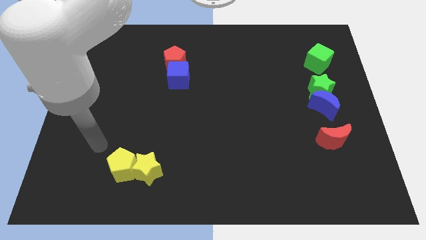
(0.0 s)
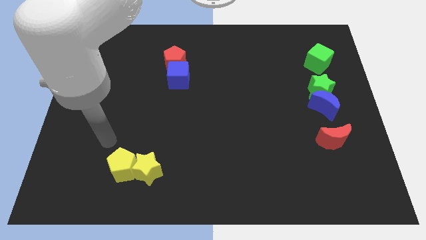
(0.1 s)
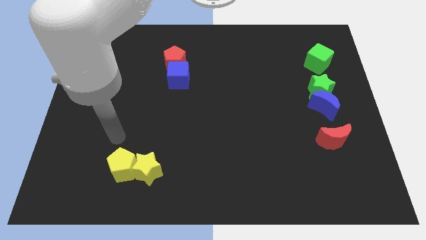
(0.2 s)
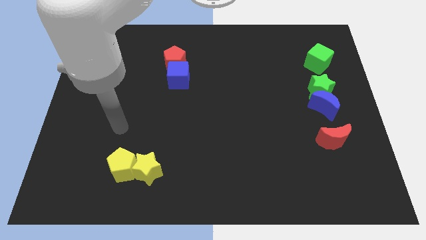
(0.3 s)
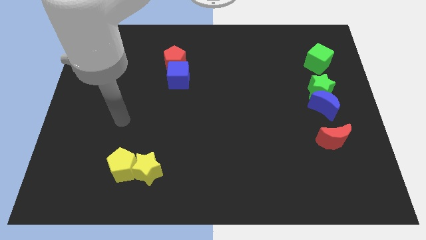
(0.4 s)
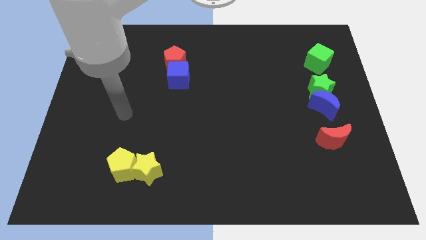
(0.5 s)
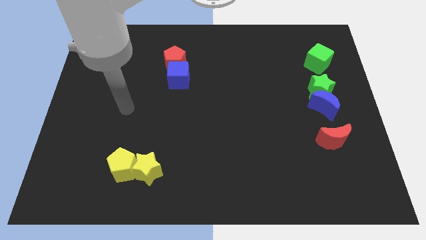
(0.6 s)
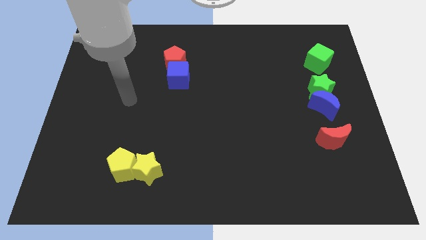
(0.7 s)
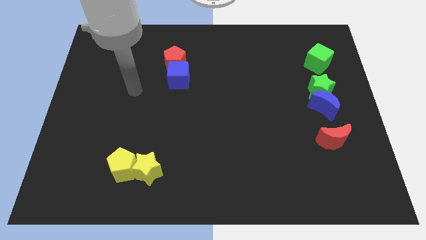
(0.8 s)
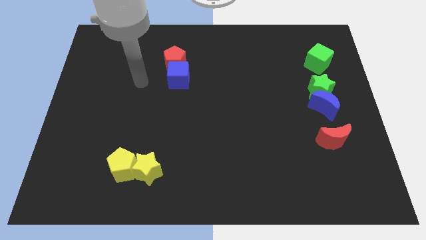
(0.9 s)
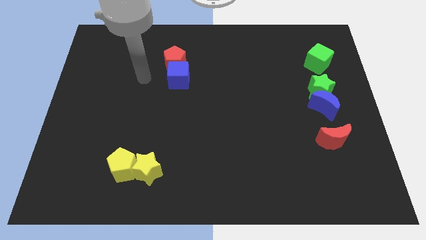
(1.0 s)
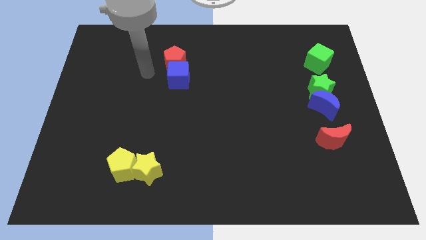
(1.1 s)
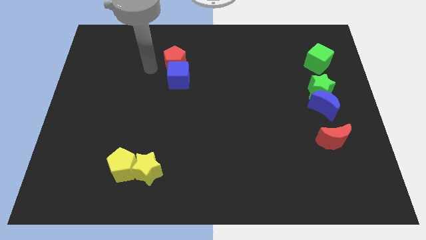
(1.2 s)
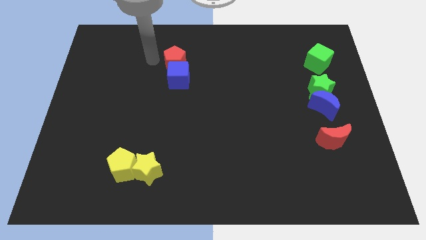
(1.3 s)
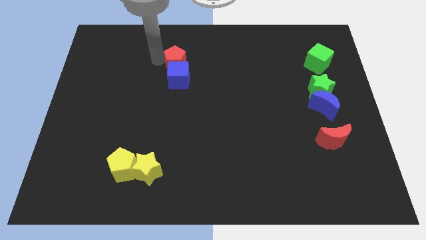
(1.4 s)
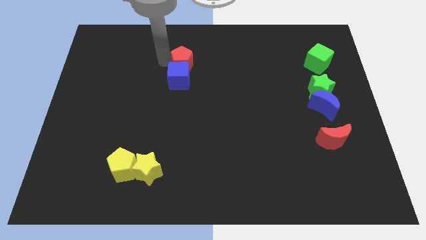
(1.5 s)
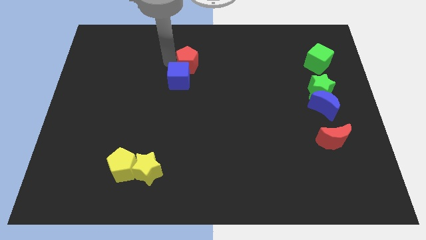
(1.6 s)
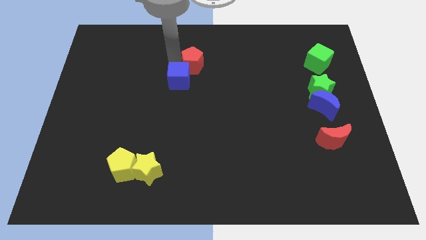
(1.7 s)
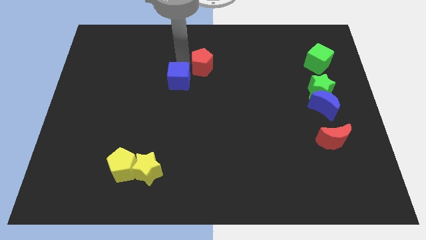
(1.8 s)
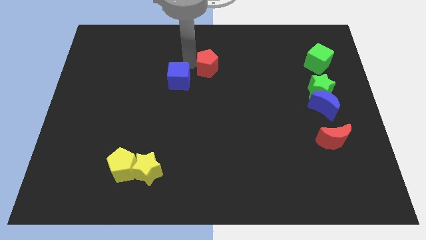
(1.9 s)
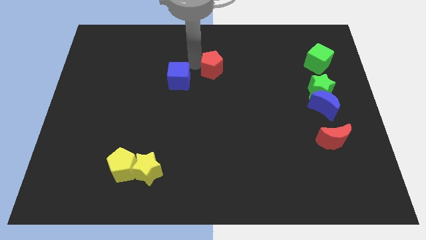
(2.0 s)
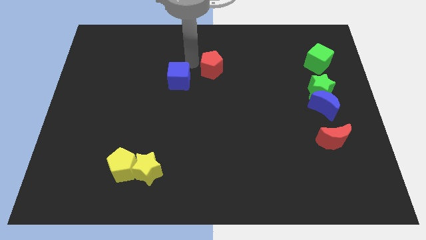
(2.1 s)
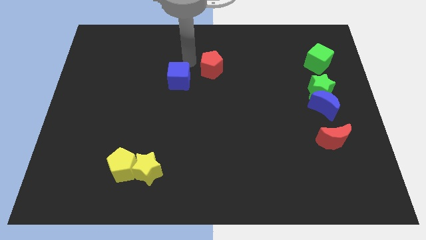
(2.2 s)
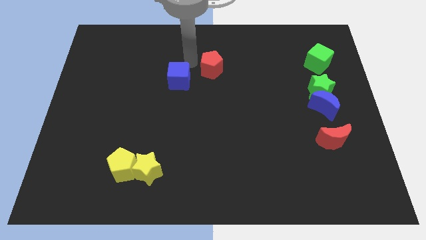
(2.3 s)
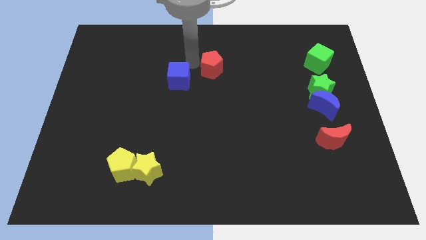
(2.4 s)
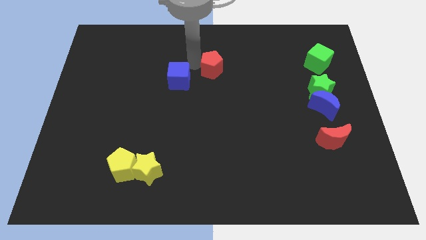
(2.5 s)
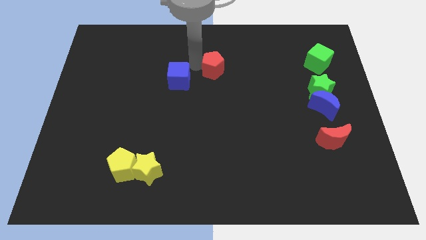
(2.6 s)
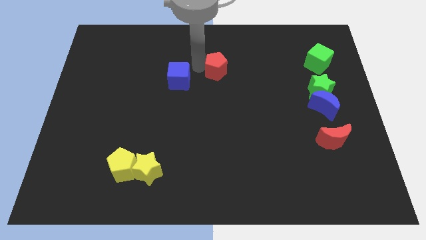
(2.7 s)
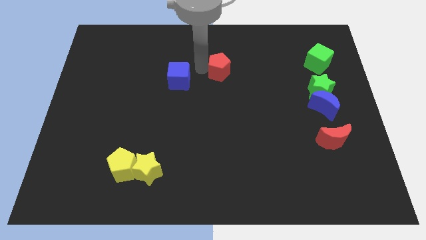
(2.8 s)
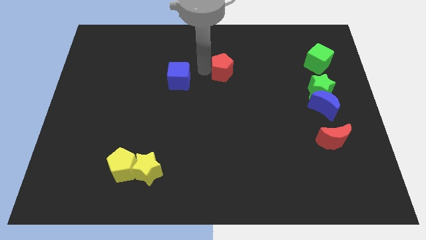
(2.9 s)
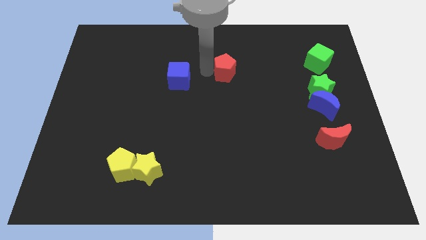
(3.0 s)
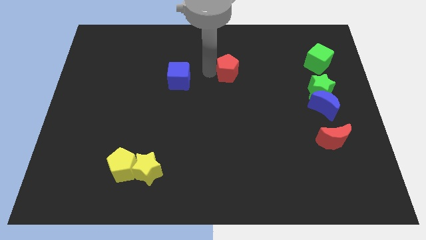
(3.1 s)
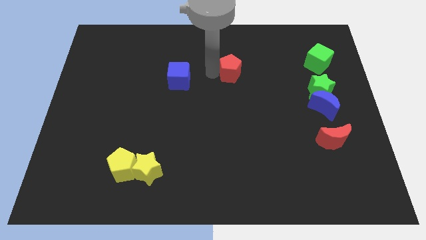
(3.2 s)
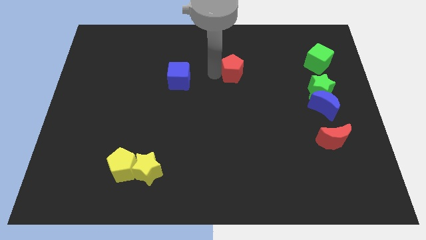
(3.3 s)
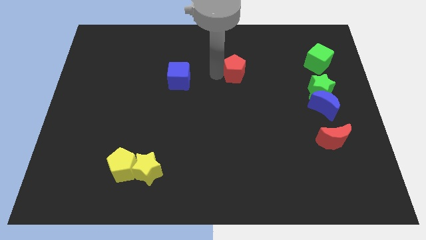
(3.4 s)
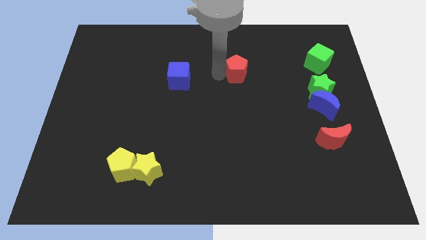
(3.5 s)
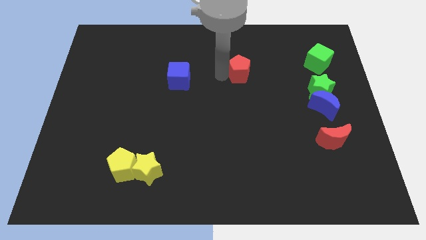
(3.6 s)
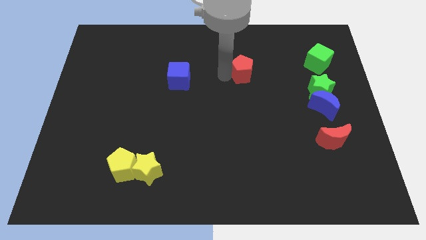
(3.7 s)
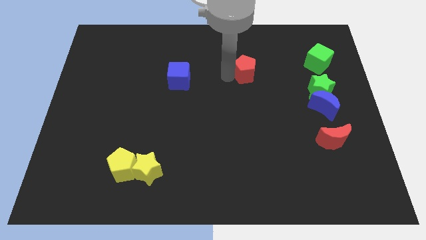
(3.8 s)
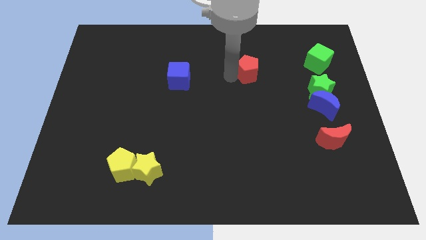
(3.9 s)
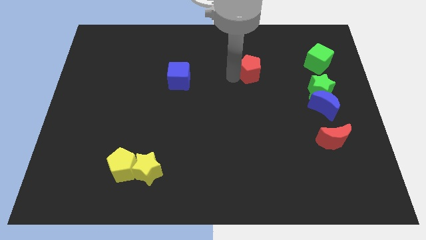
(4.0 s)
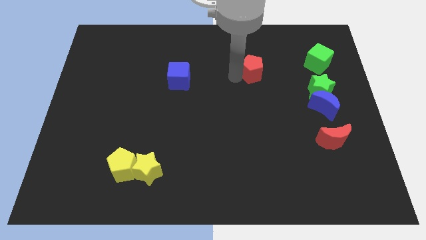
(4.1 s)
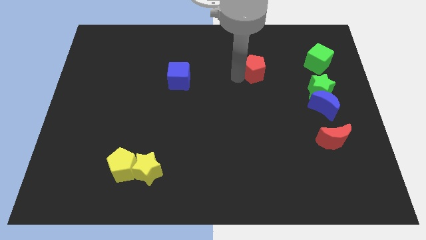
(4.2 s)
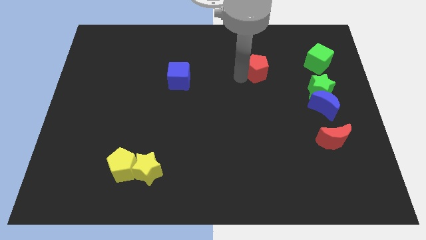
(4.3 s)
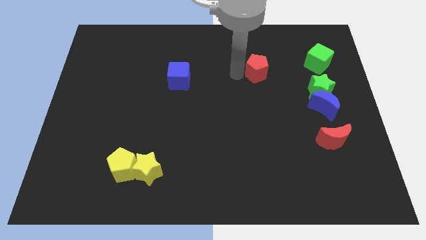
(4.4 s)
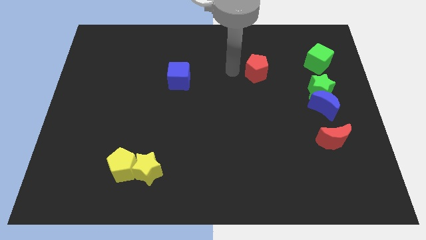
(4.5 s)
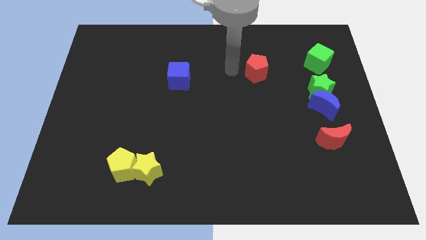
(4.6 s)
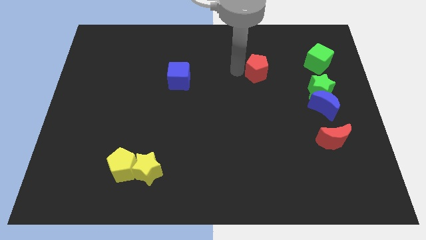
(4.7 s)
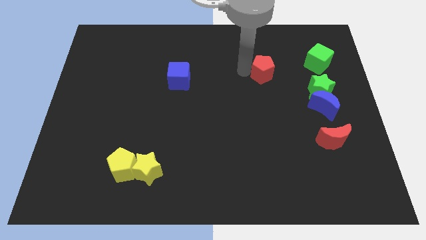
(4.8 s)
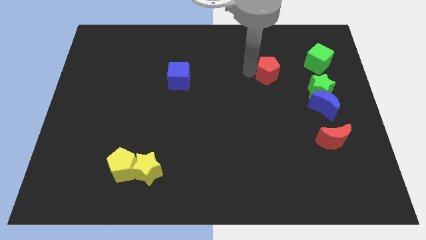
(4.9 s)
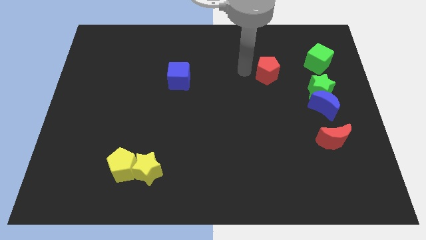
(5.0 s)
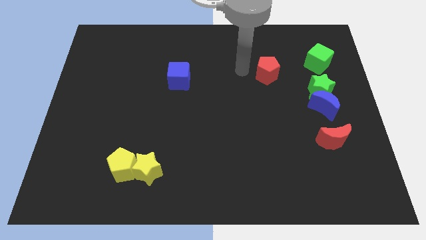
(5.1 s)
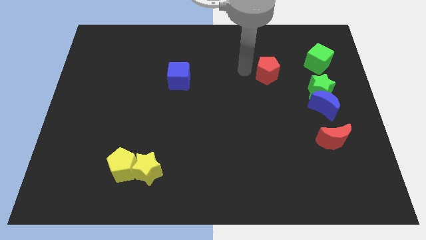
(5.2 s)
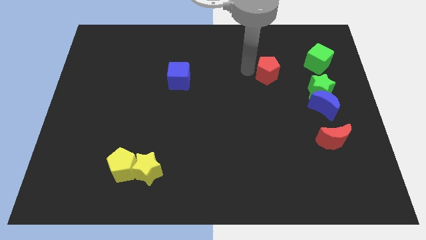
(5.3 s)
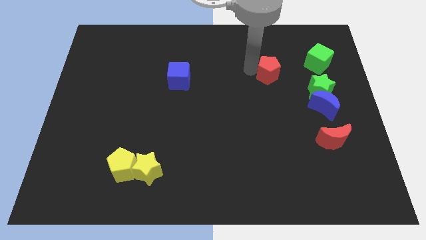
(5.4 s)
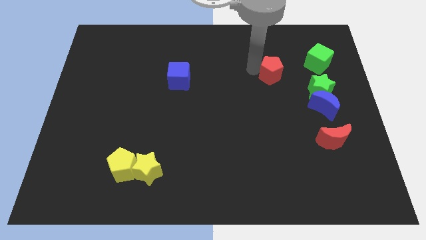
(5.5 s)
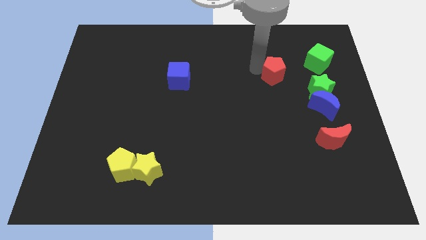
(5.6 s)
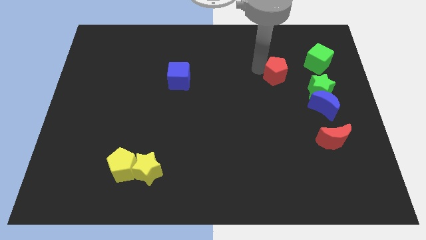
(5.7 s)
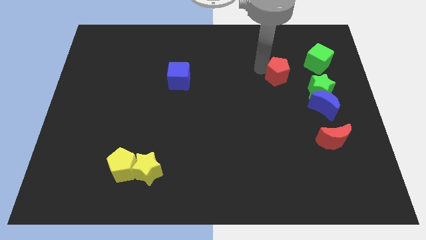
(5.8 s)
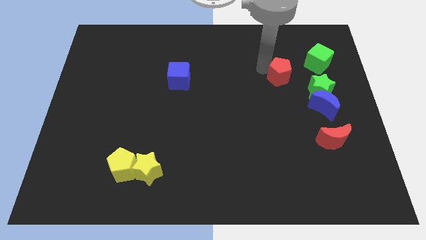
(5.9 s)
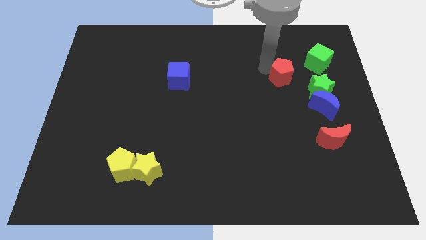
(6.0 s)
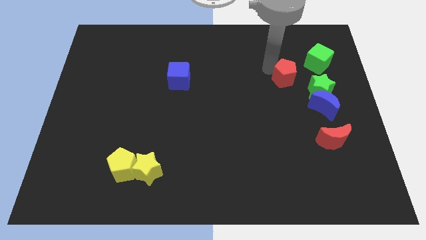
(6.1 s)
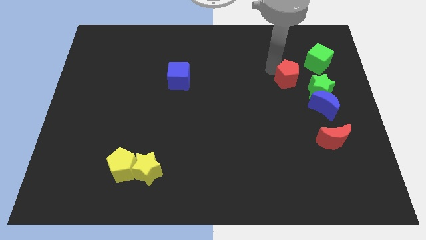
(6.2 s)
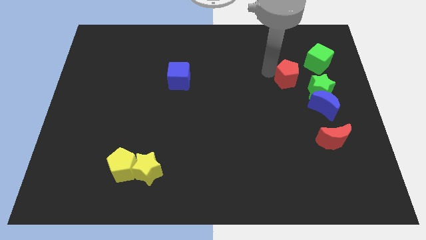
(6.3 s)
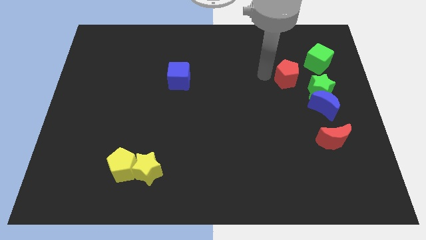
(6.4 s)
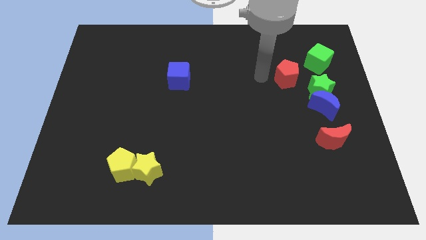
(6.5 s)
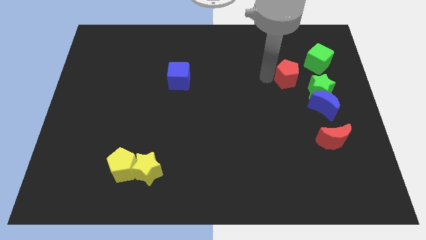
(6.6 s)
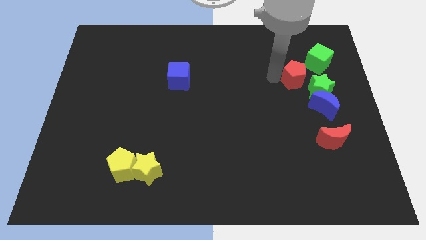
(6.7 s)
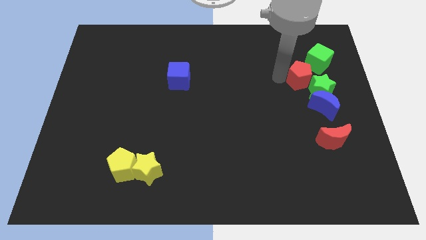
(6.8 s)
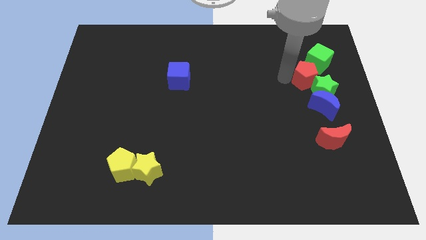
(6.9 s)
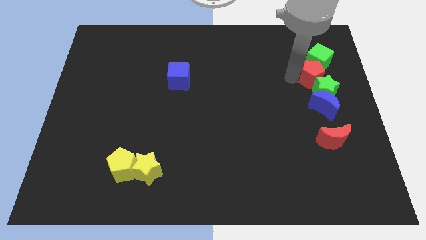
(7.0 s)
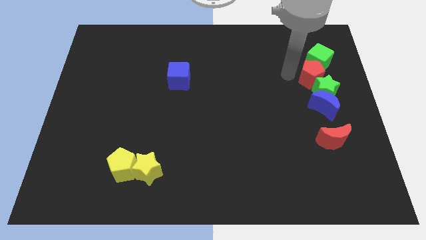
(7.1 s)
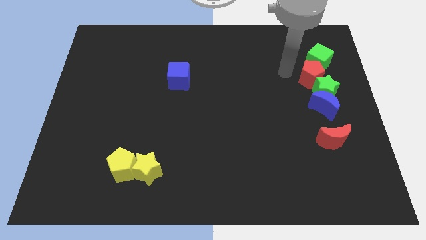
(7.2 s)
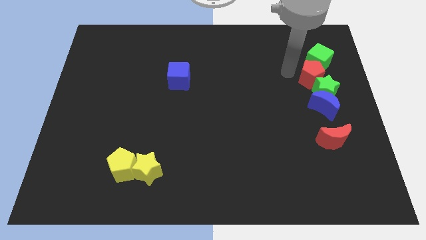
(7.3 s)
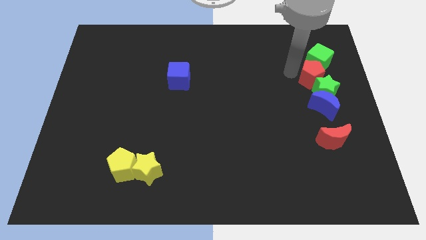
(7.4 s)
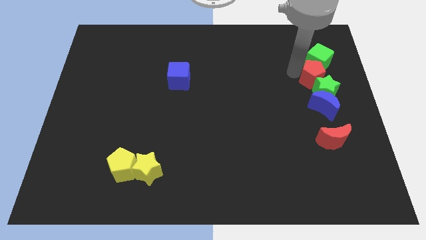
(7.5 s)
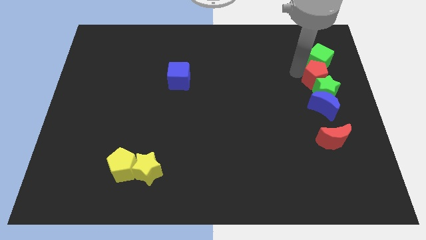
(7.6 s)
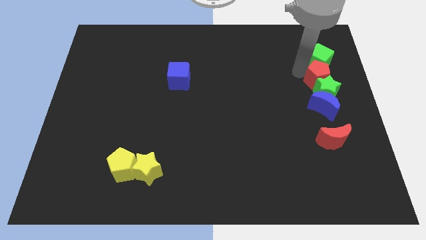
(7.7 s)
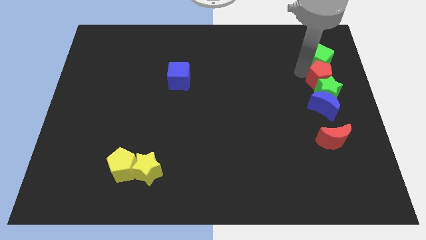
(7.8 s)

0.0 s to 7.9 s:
slide the red pentagon to the center right
